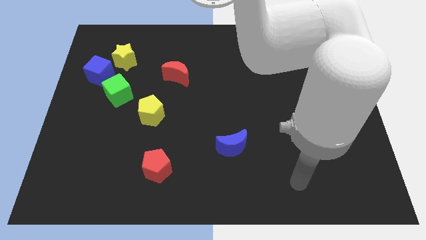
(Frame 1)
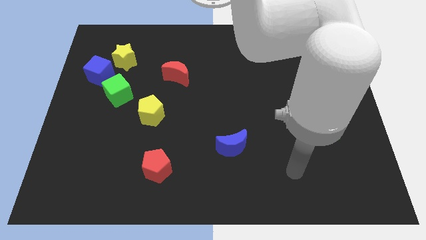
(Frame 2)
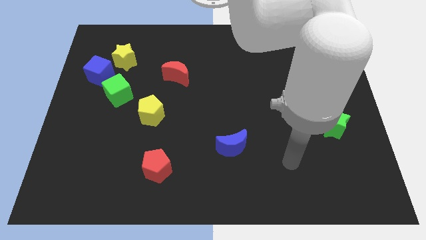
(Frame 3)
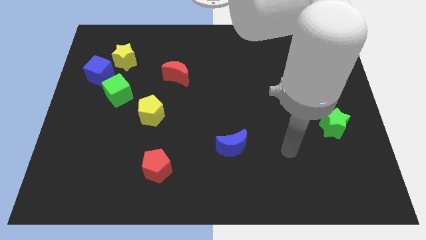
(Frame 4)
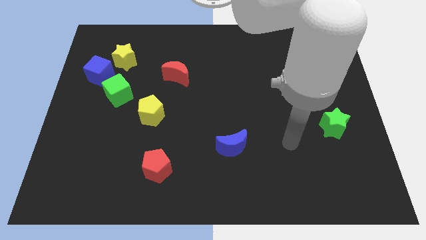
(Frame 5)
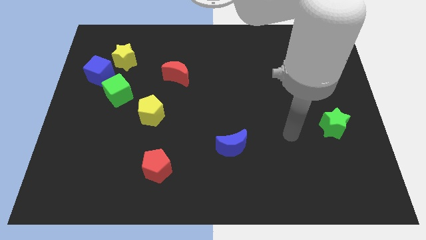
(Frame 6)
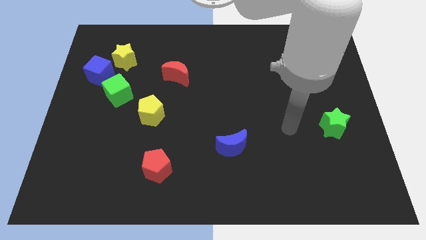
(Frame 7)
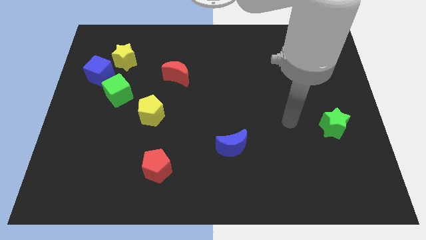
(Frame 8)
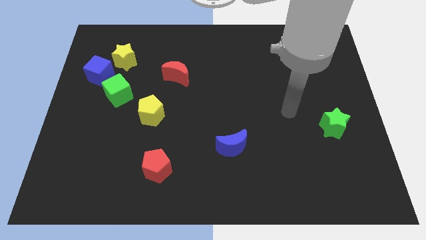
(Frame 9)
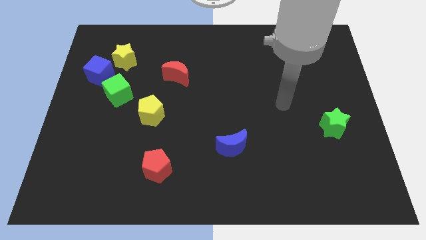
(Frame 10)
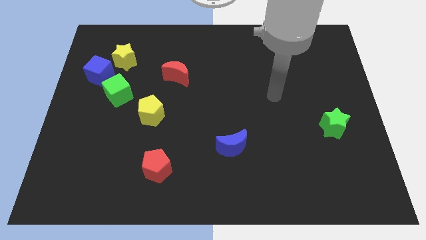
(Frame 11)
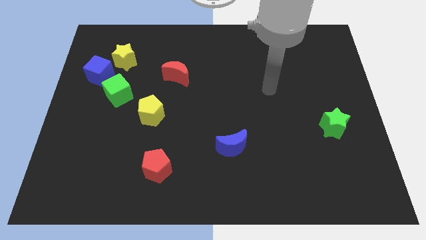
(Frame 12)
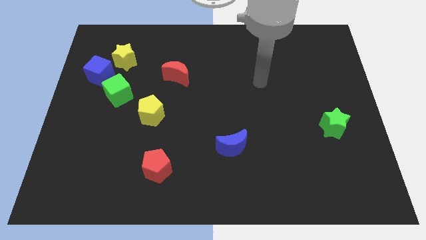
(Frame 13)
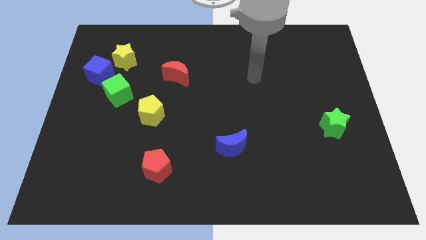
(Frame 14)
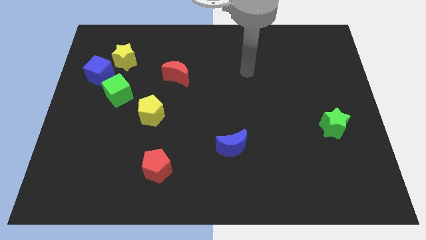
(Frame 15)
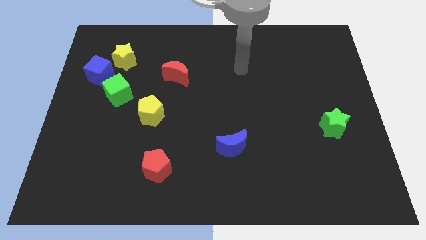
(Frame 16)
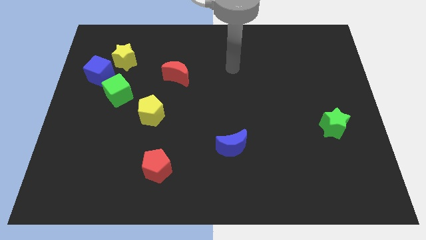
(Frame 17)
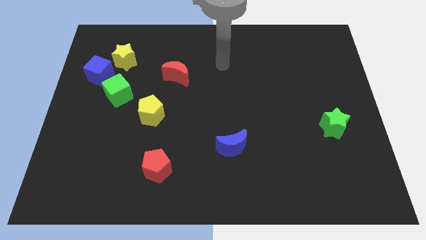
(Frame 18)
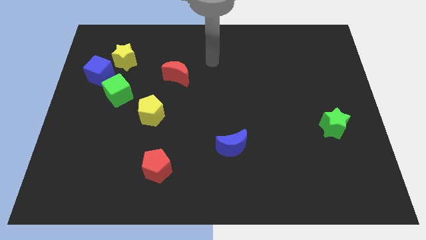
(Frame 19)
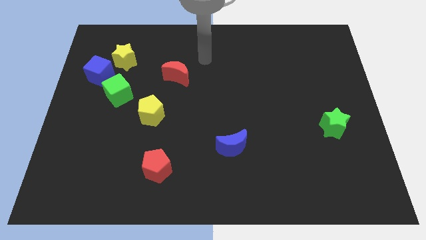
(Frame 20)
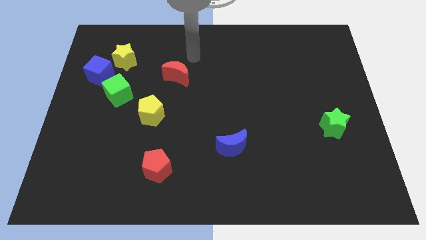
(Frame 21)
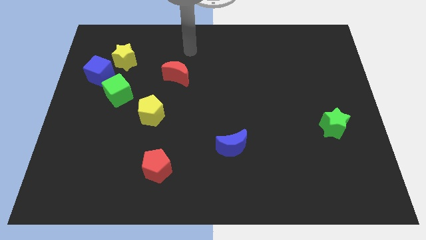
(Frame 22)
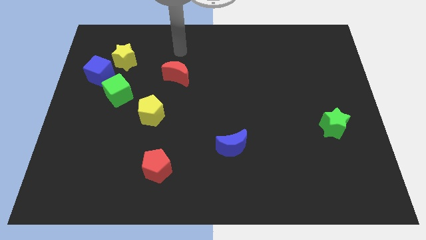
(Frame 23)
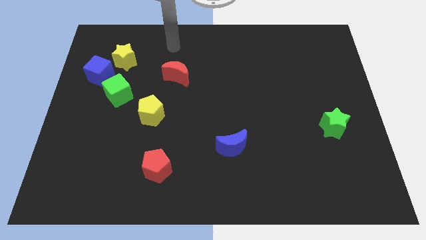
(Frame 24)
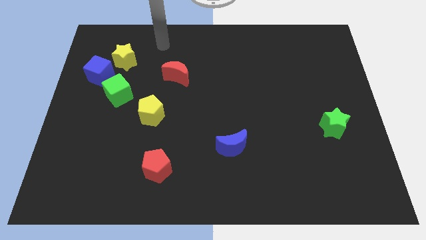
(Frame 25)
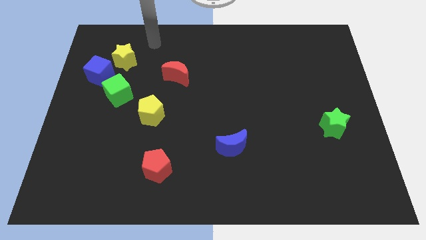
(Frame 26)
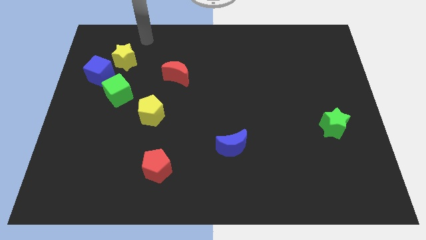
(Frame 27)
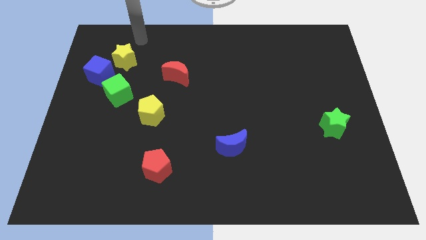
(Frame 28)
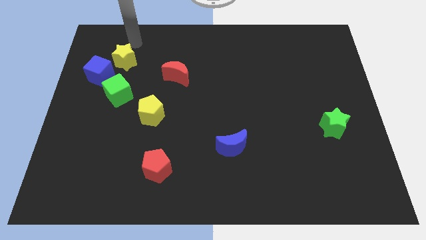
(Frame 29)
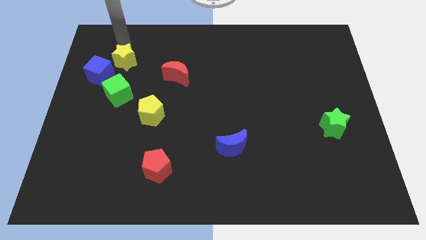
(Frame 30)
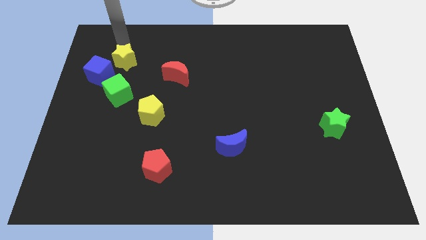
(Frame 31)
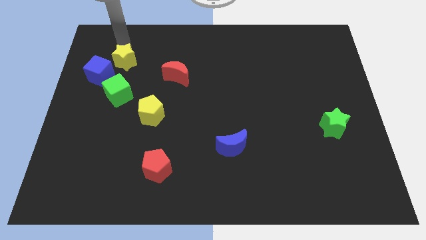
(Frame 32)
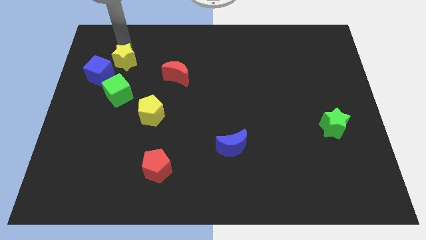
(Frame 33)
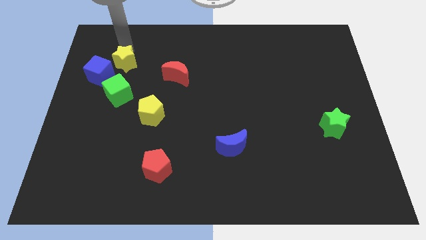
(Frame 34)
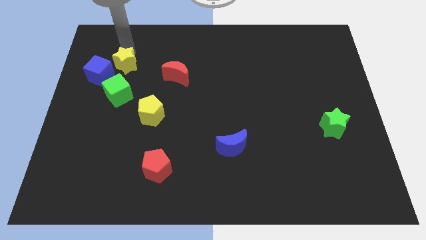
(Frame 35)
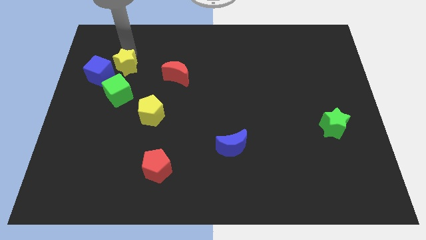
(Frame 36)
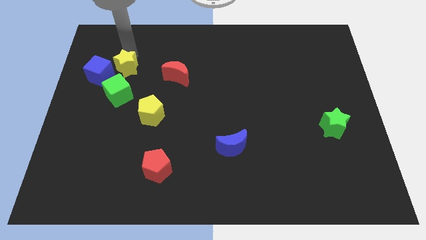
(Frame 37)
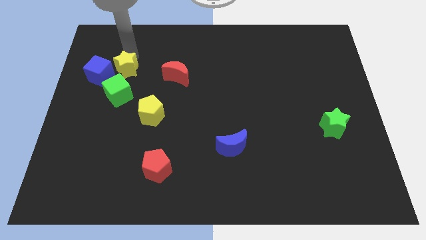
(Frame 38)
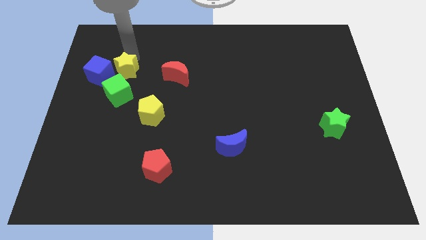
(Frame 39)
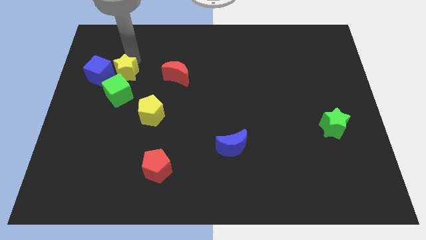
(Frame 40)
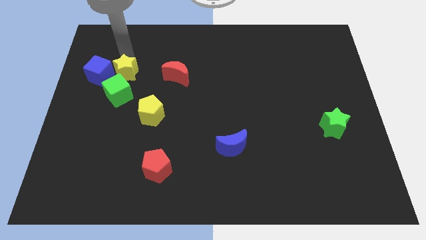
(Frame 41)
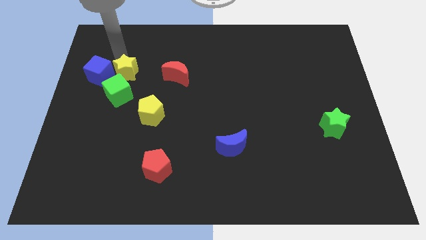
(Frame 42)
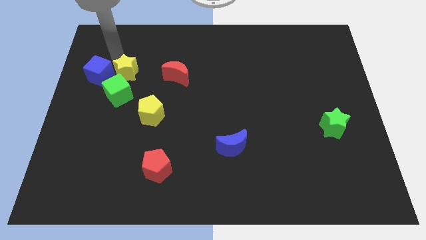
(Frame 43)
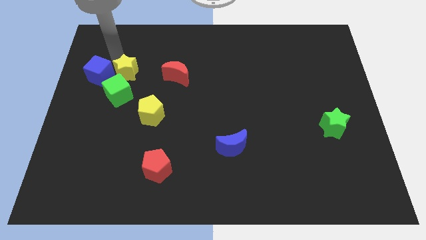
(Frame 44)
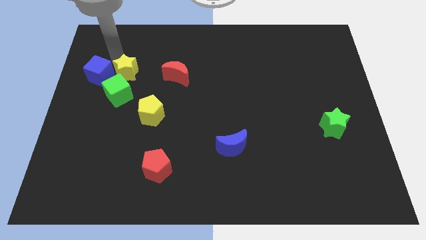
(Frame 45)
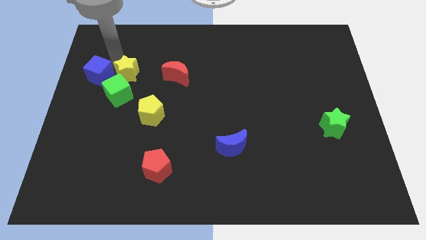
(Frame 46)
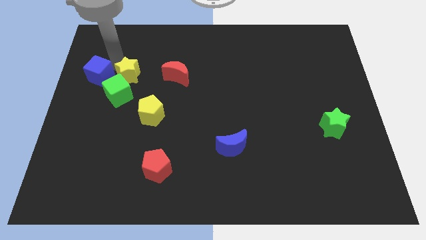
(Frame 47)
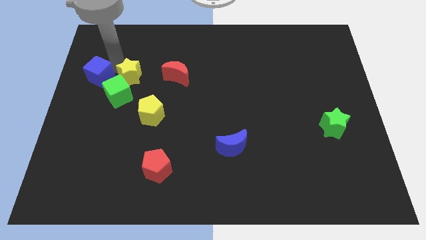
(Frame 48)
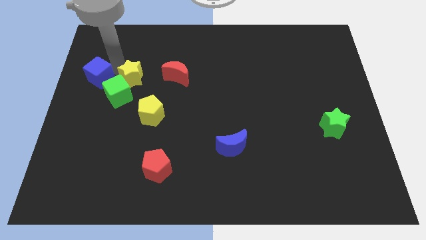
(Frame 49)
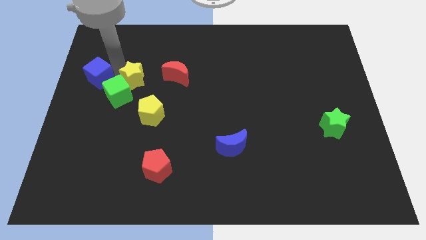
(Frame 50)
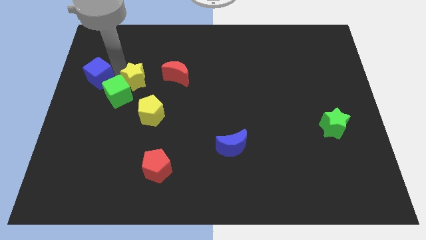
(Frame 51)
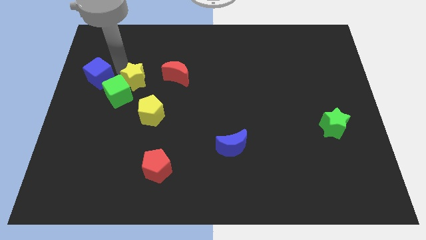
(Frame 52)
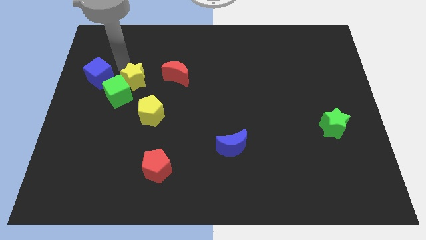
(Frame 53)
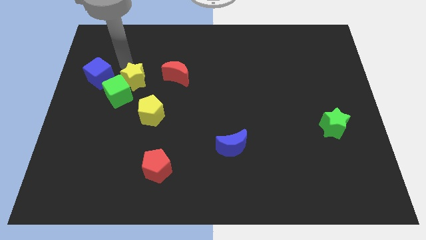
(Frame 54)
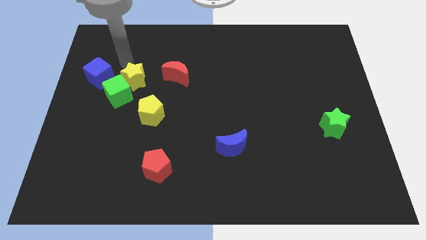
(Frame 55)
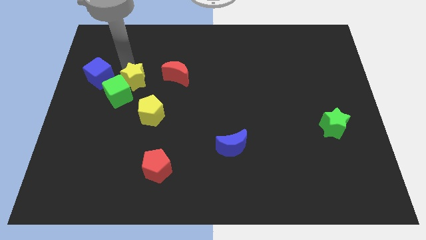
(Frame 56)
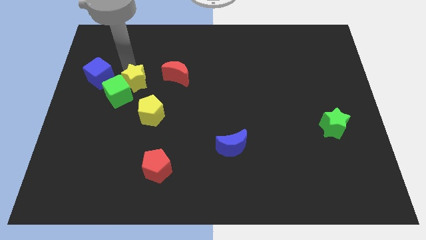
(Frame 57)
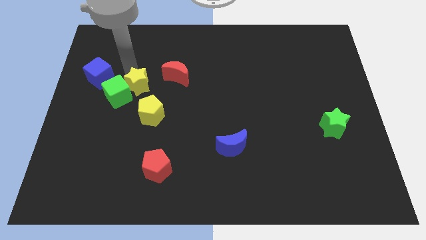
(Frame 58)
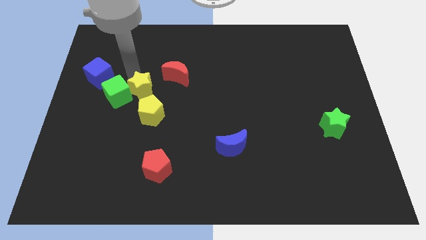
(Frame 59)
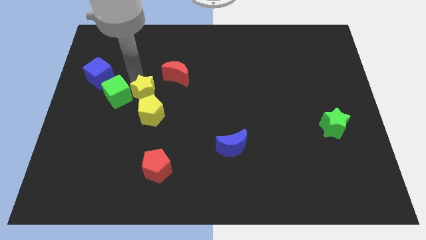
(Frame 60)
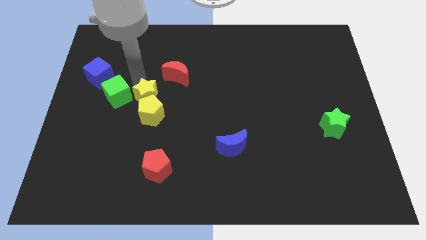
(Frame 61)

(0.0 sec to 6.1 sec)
slide the yellow star towards the yellow pentagon

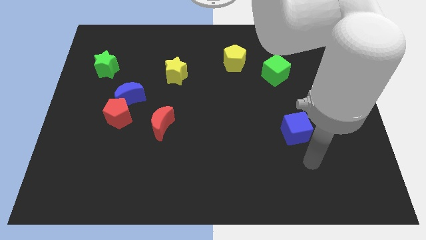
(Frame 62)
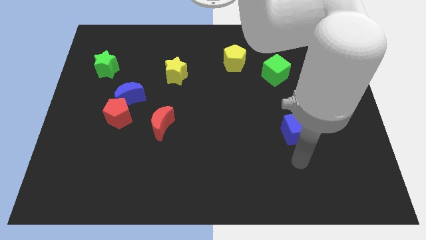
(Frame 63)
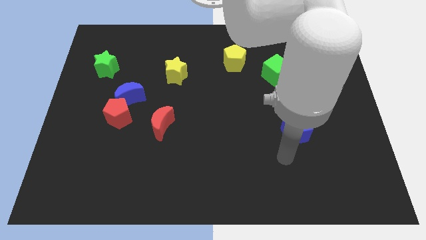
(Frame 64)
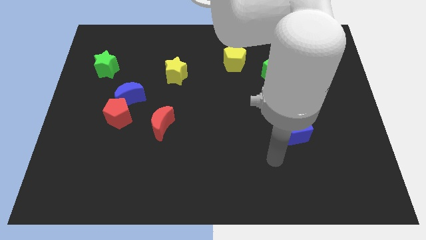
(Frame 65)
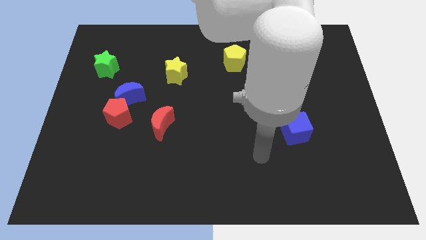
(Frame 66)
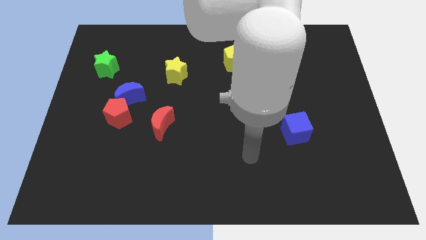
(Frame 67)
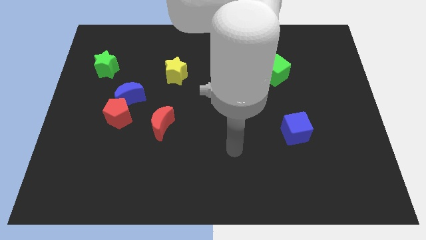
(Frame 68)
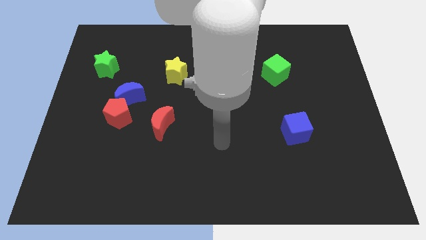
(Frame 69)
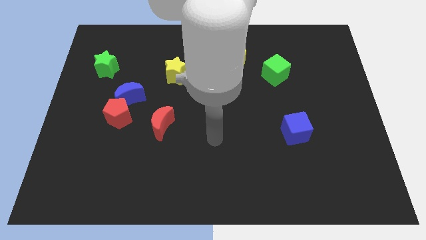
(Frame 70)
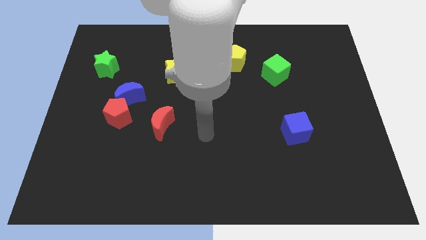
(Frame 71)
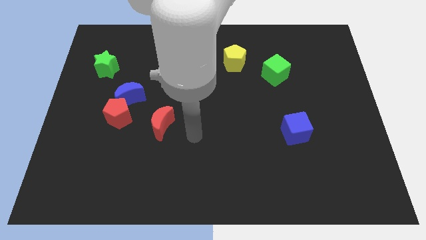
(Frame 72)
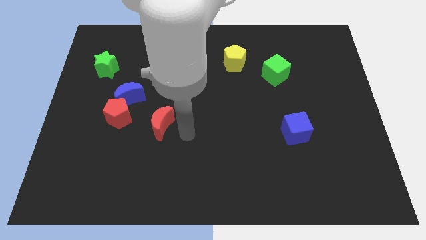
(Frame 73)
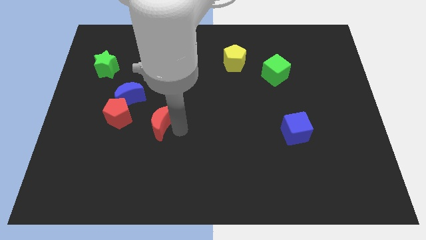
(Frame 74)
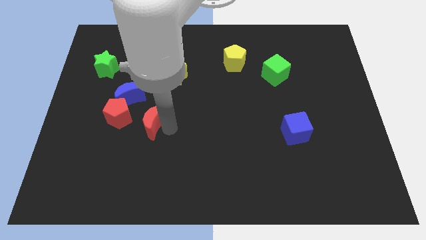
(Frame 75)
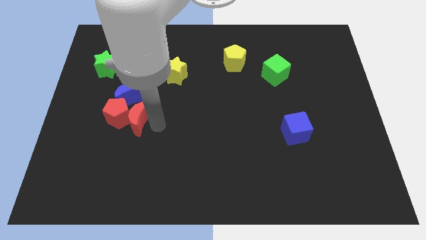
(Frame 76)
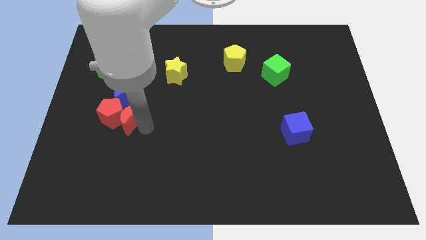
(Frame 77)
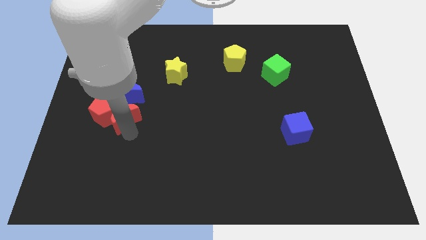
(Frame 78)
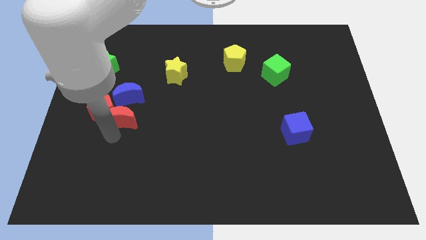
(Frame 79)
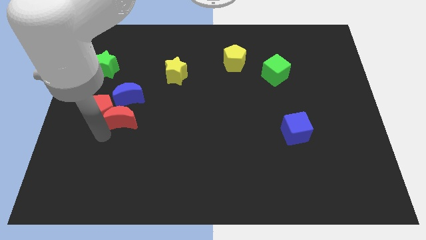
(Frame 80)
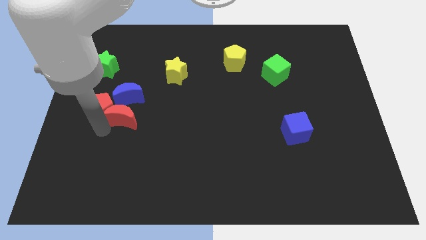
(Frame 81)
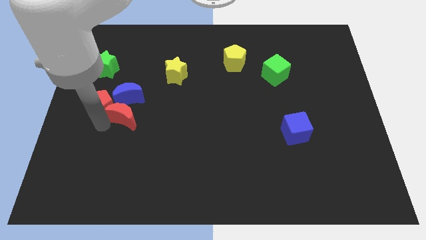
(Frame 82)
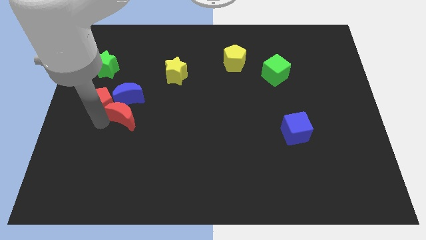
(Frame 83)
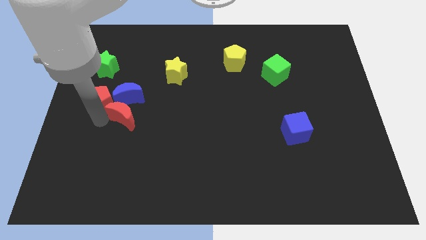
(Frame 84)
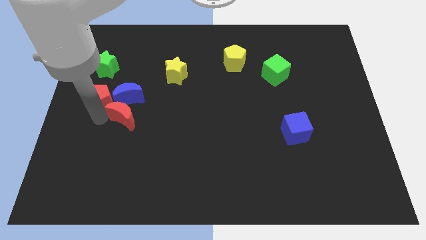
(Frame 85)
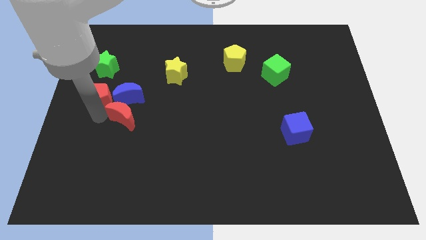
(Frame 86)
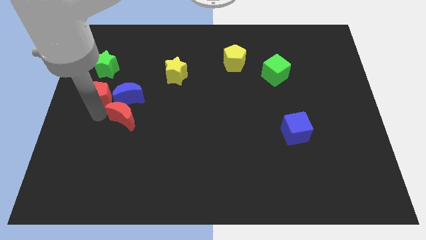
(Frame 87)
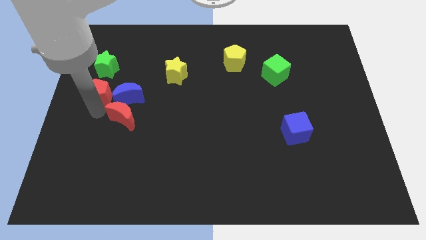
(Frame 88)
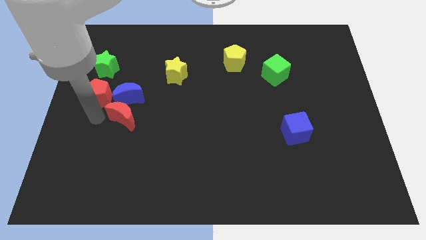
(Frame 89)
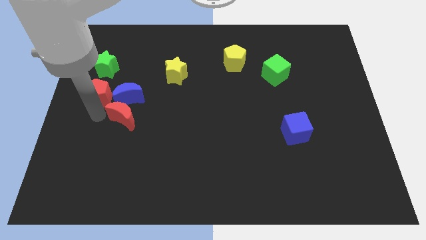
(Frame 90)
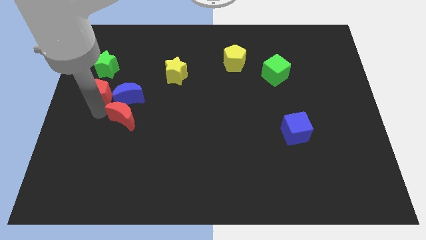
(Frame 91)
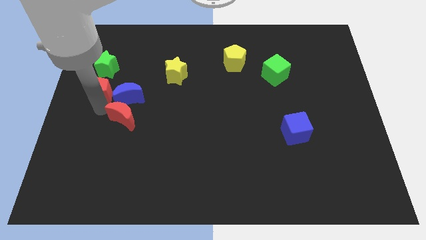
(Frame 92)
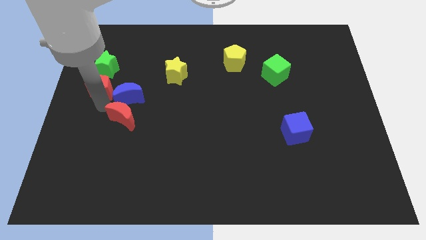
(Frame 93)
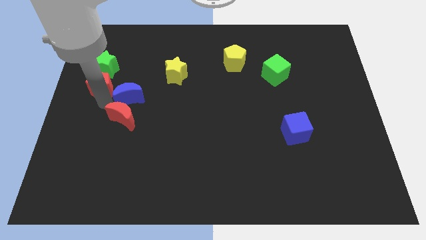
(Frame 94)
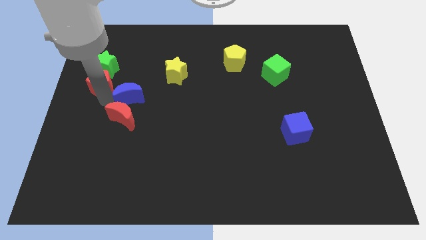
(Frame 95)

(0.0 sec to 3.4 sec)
push the red pentagon towards the green star
